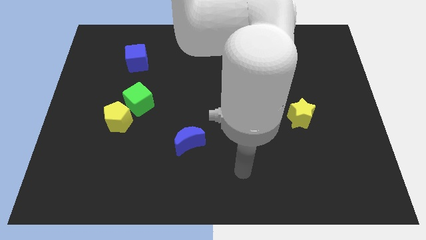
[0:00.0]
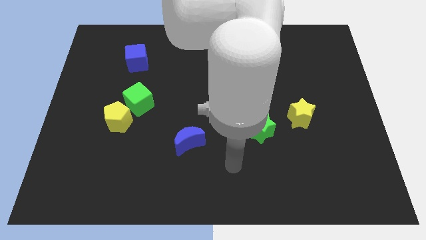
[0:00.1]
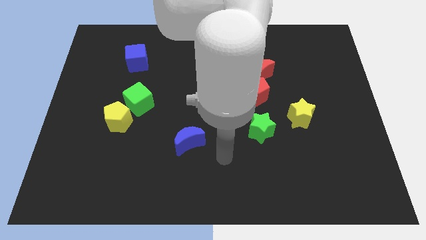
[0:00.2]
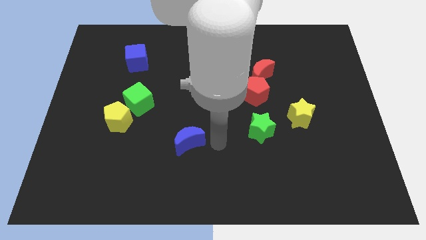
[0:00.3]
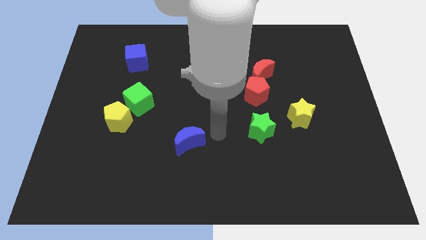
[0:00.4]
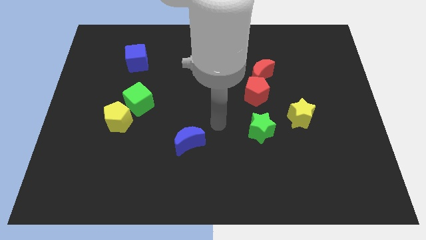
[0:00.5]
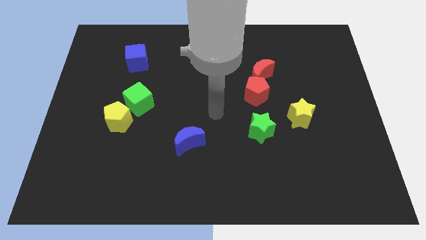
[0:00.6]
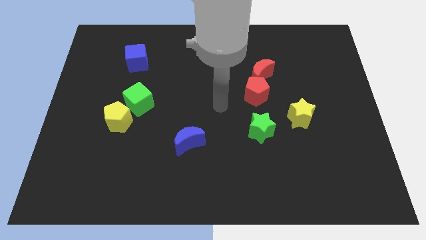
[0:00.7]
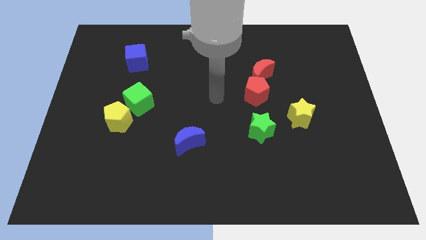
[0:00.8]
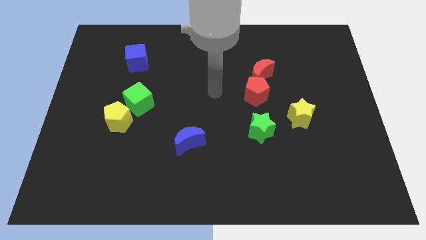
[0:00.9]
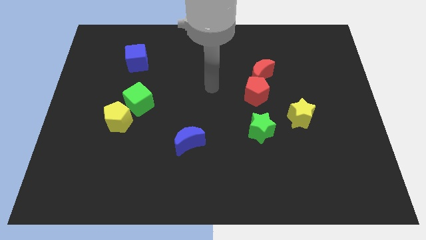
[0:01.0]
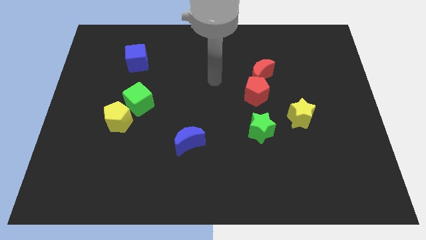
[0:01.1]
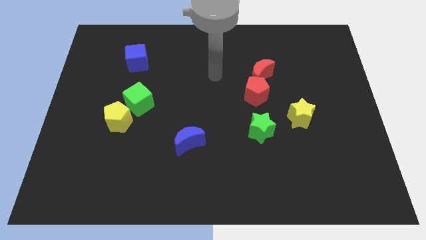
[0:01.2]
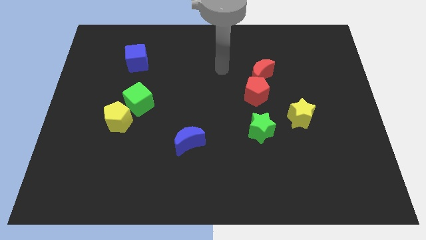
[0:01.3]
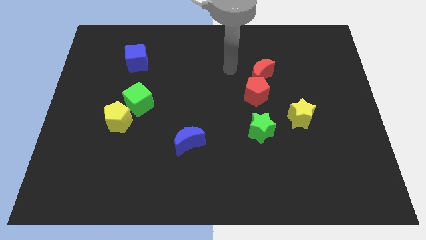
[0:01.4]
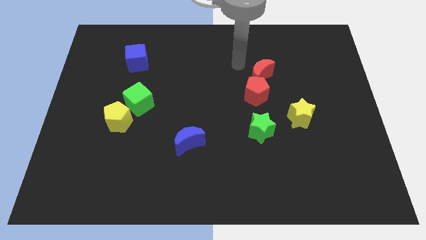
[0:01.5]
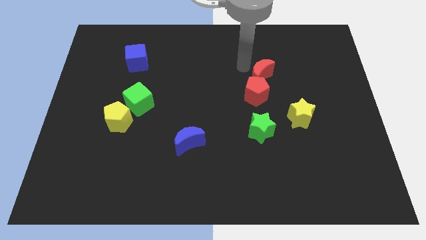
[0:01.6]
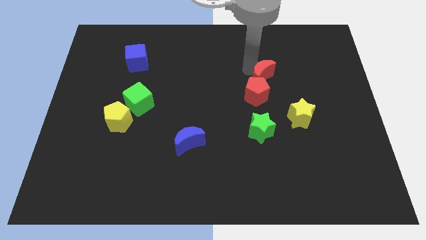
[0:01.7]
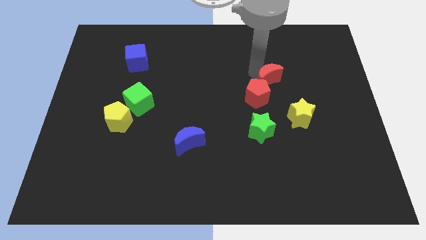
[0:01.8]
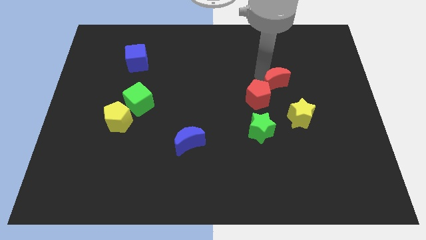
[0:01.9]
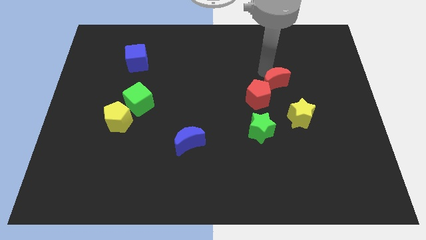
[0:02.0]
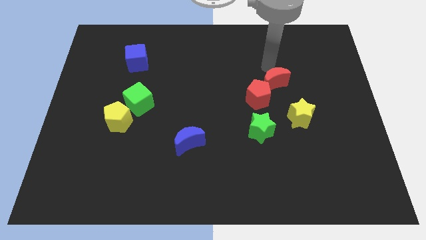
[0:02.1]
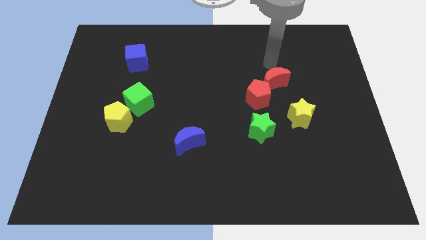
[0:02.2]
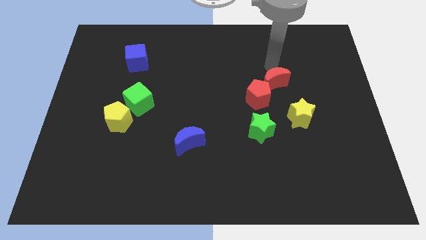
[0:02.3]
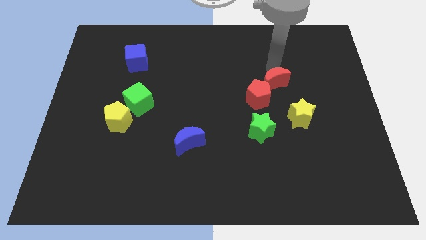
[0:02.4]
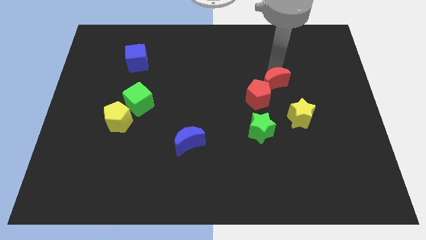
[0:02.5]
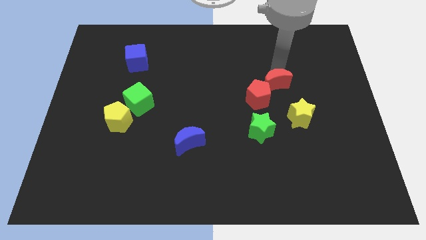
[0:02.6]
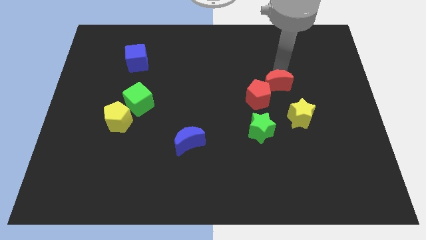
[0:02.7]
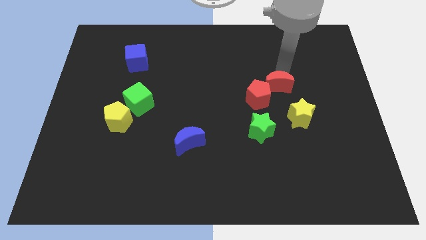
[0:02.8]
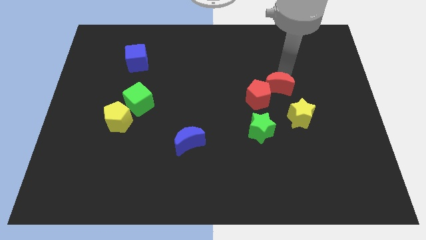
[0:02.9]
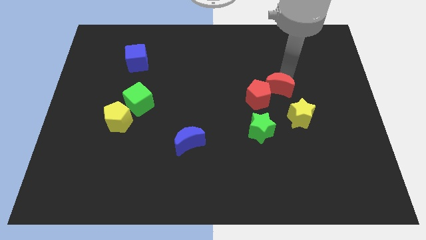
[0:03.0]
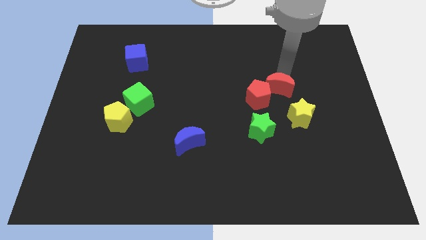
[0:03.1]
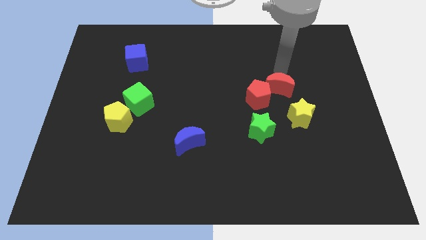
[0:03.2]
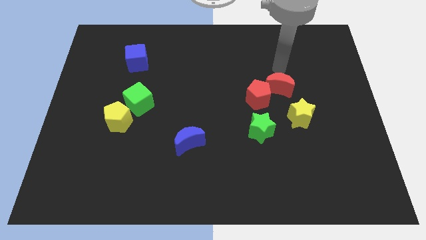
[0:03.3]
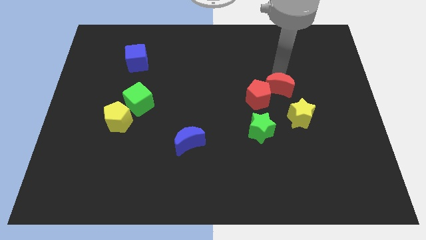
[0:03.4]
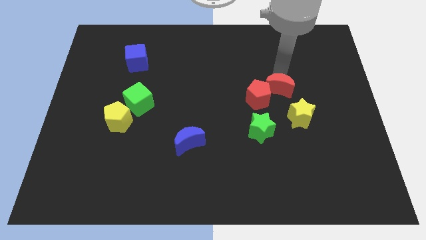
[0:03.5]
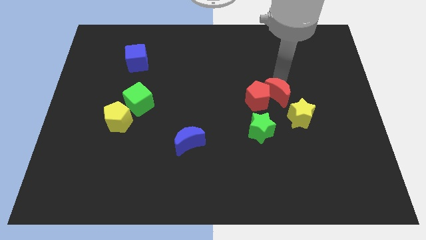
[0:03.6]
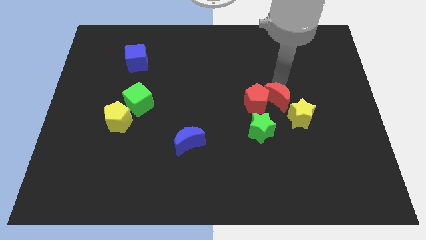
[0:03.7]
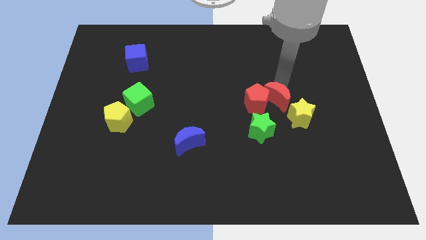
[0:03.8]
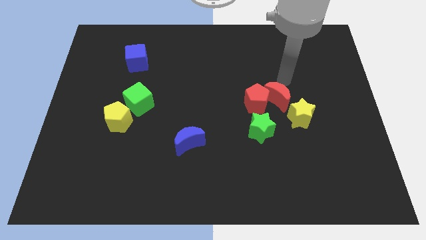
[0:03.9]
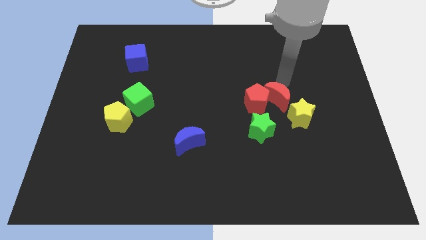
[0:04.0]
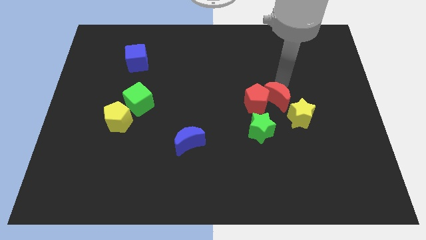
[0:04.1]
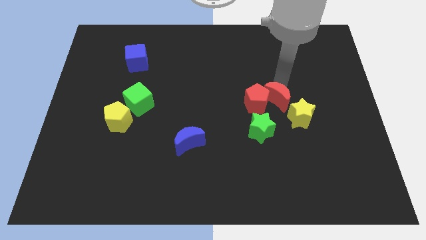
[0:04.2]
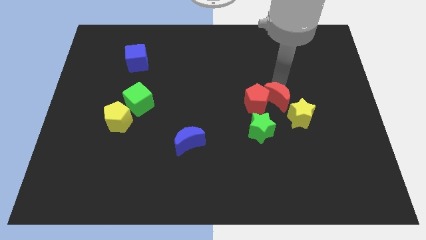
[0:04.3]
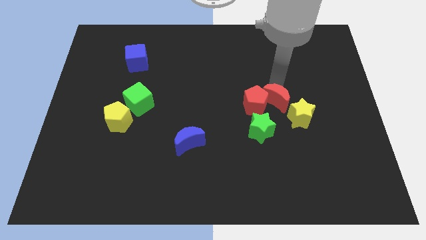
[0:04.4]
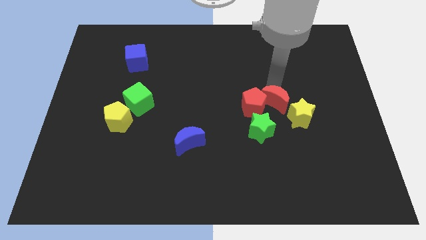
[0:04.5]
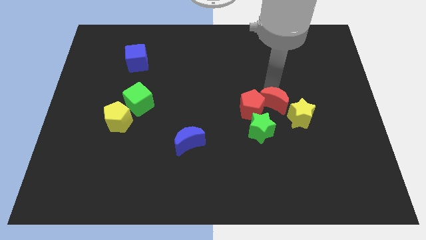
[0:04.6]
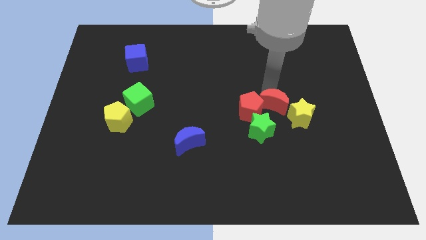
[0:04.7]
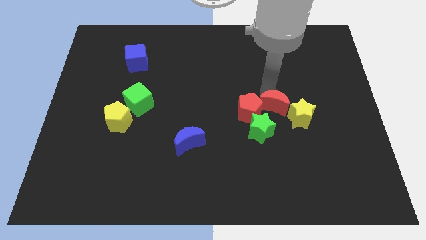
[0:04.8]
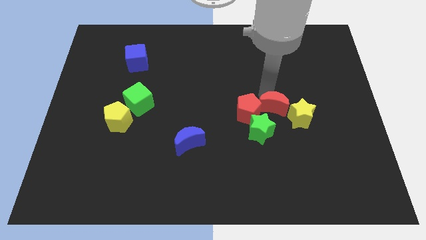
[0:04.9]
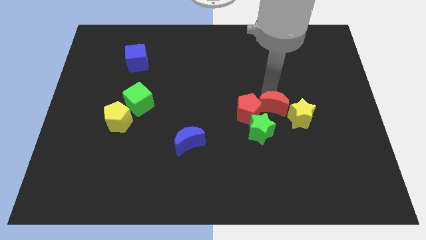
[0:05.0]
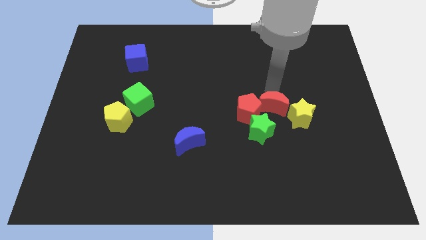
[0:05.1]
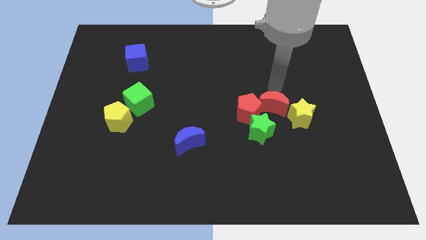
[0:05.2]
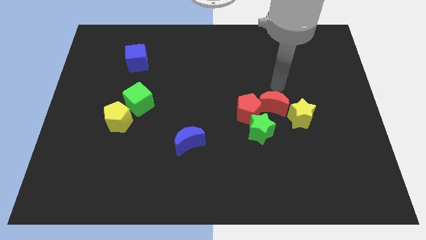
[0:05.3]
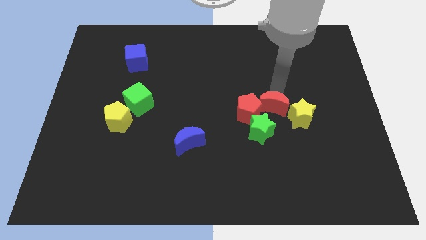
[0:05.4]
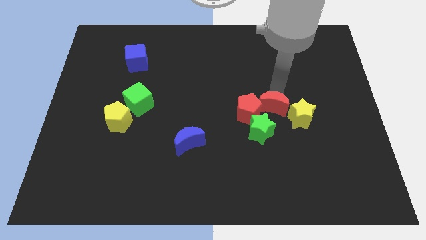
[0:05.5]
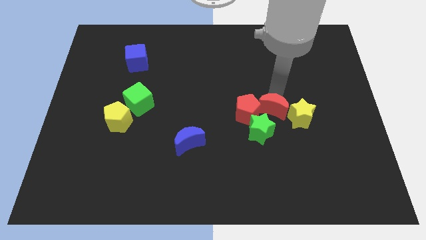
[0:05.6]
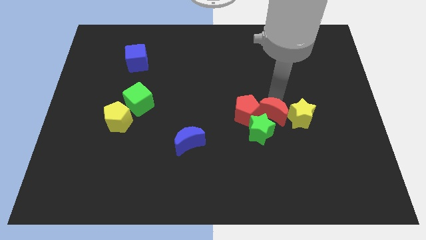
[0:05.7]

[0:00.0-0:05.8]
move the red moon towards the green star

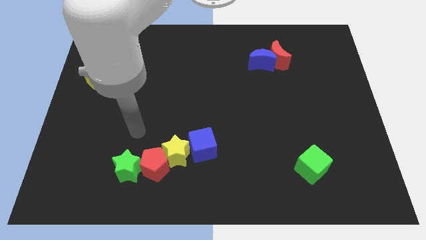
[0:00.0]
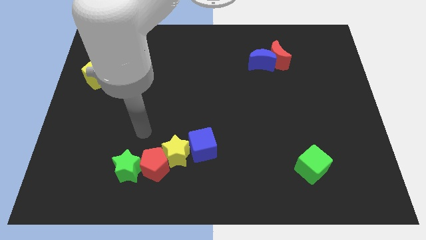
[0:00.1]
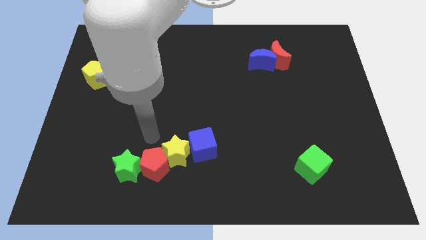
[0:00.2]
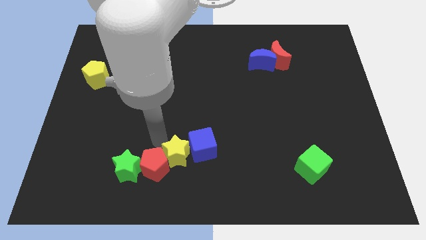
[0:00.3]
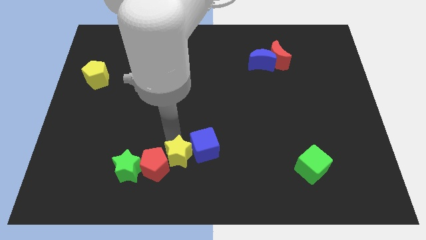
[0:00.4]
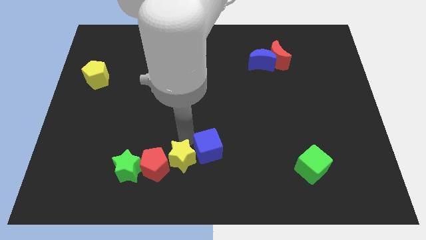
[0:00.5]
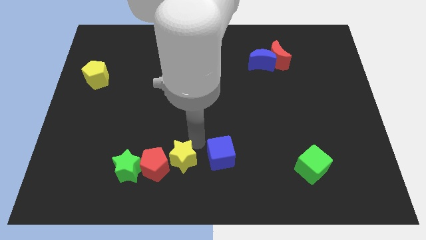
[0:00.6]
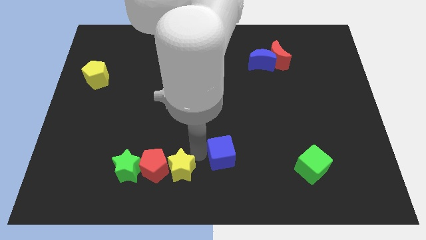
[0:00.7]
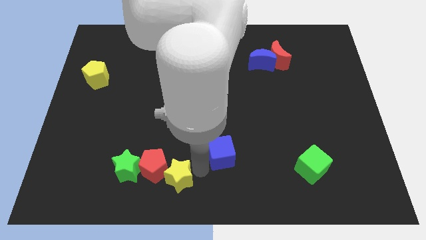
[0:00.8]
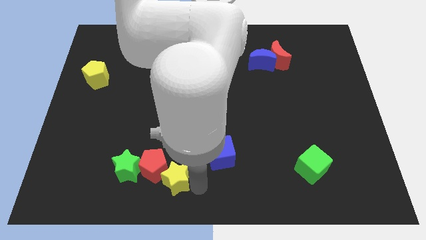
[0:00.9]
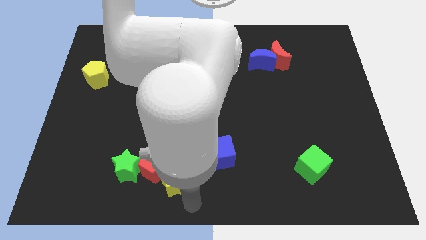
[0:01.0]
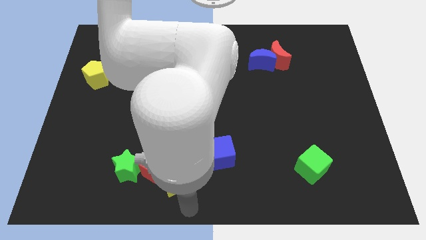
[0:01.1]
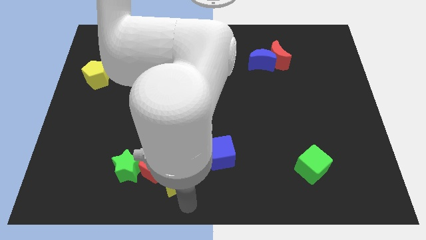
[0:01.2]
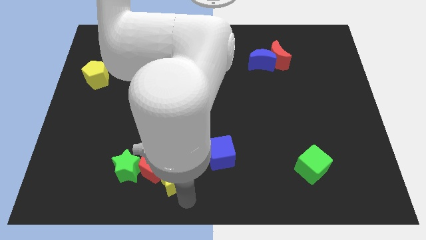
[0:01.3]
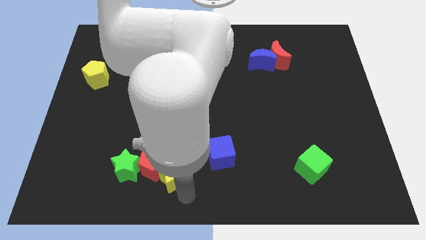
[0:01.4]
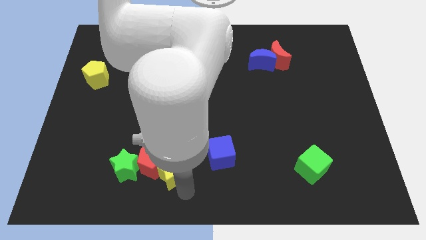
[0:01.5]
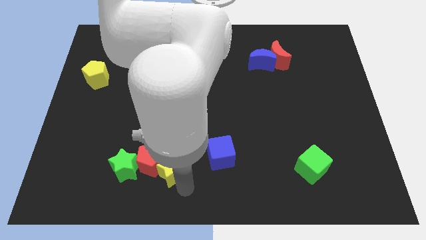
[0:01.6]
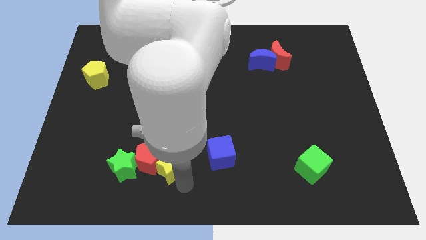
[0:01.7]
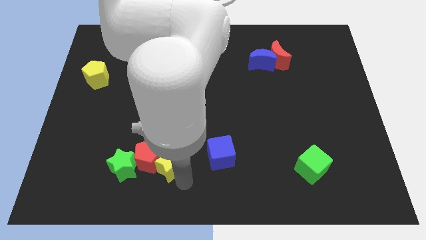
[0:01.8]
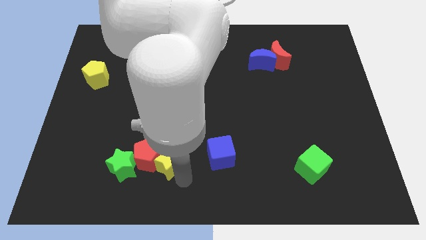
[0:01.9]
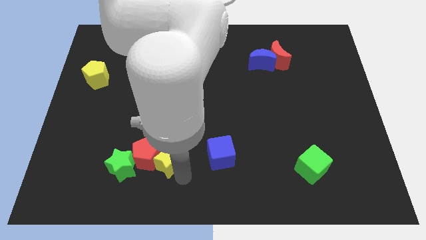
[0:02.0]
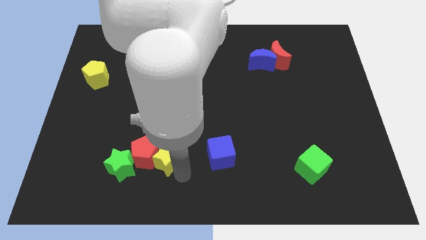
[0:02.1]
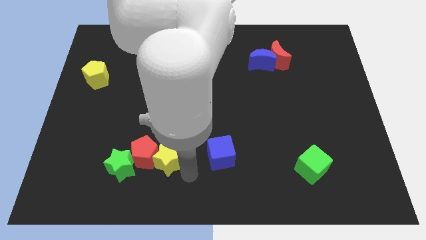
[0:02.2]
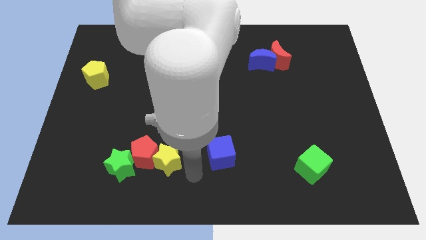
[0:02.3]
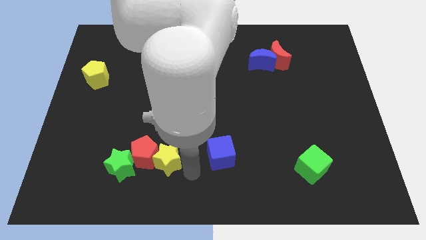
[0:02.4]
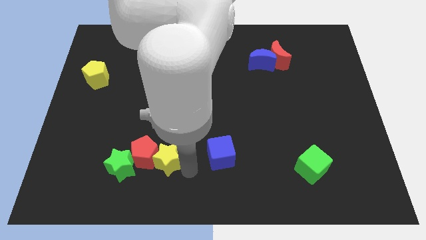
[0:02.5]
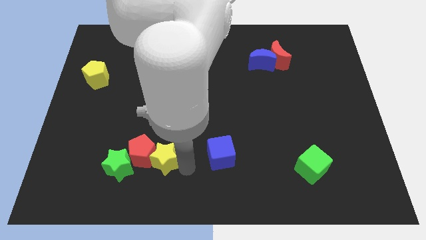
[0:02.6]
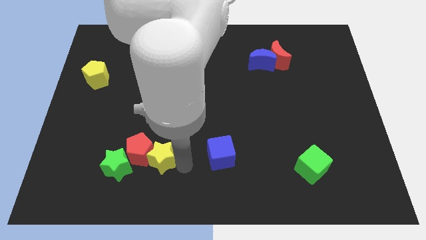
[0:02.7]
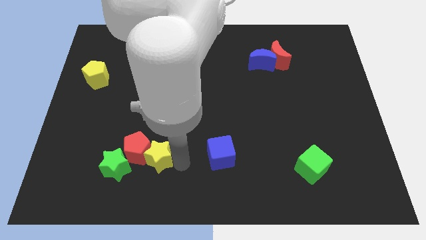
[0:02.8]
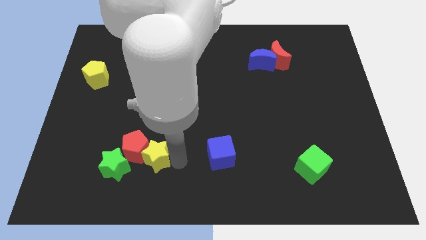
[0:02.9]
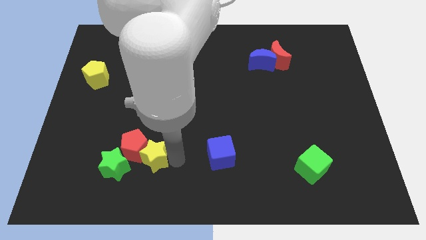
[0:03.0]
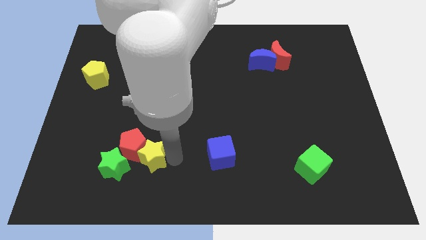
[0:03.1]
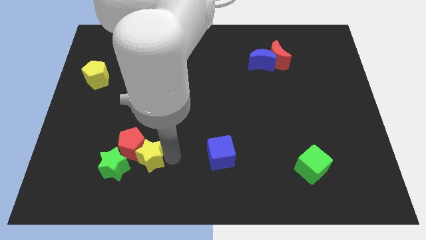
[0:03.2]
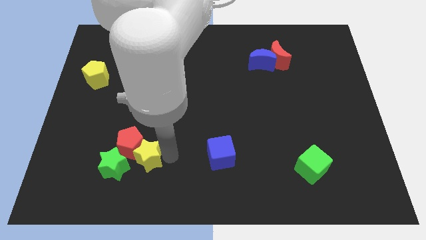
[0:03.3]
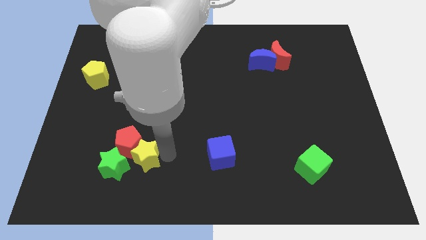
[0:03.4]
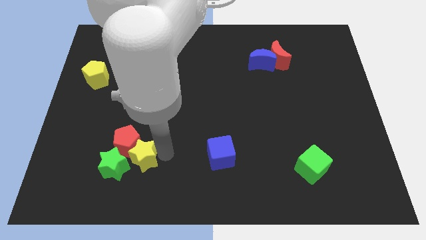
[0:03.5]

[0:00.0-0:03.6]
put the yellow star close to the green star
